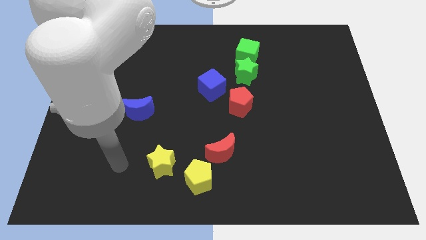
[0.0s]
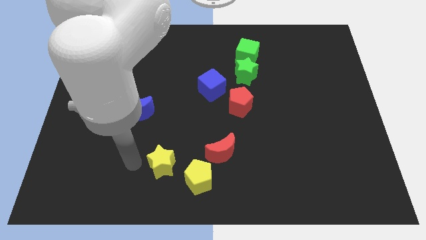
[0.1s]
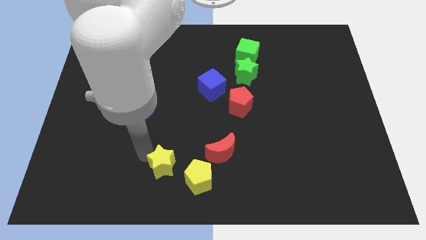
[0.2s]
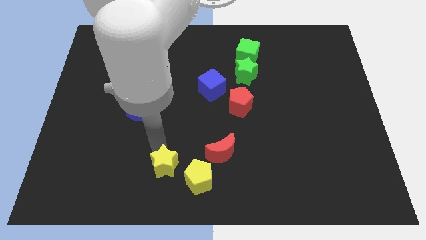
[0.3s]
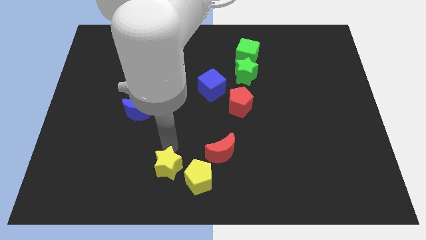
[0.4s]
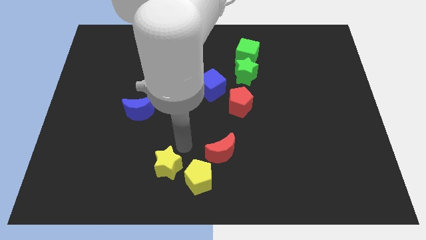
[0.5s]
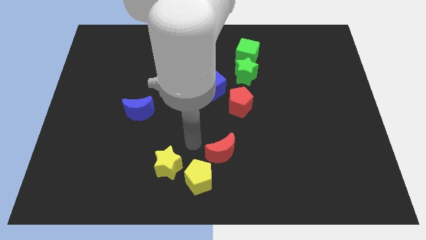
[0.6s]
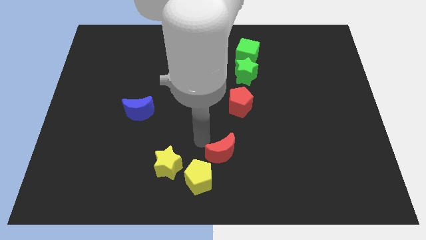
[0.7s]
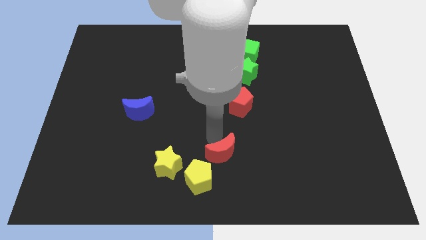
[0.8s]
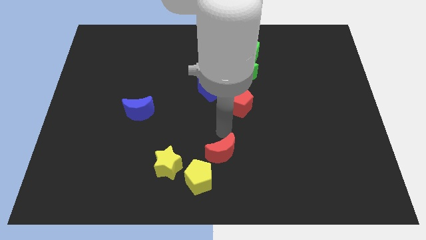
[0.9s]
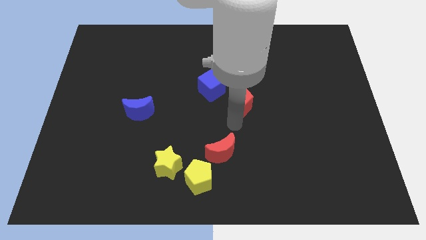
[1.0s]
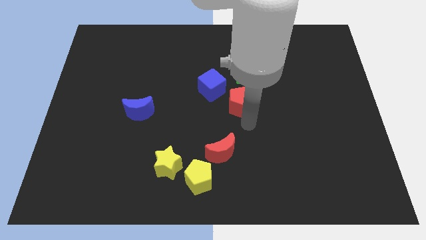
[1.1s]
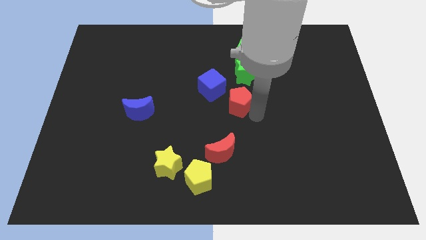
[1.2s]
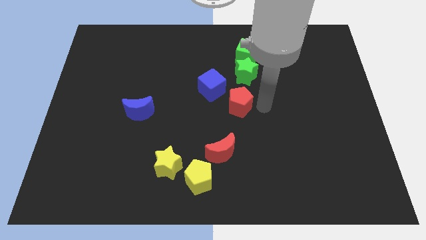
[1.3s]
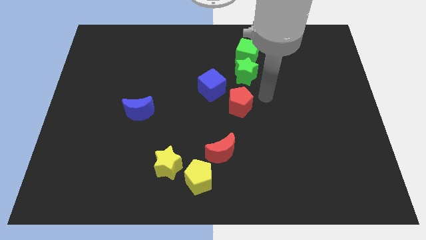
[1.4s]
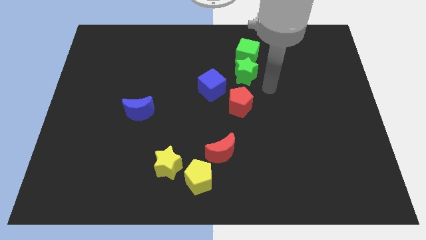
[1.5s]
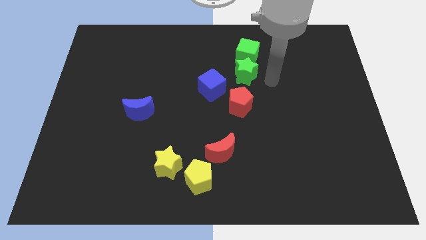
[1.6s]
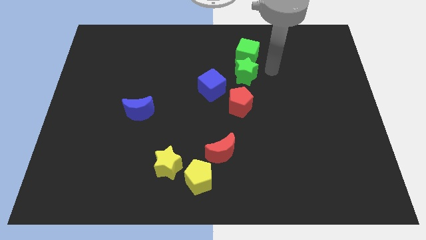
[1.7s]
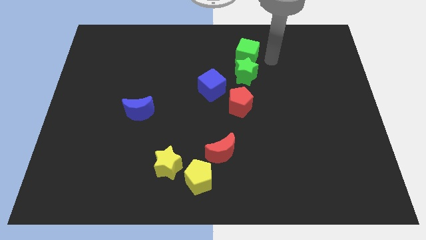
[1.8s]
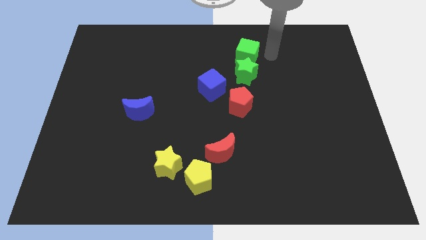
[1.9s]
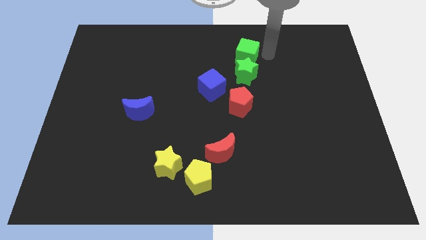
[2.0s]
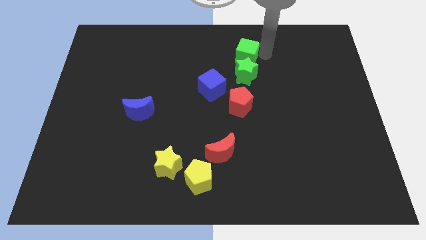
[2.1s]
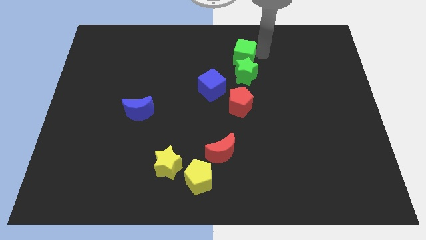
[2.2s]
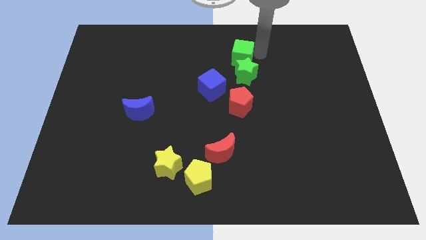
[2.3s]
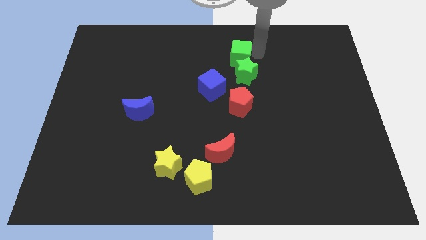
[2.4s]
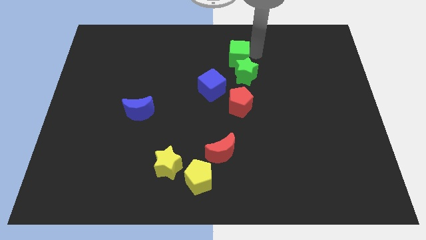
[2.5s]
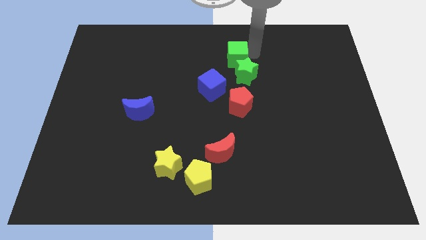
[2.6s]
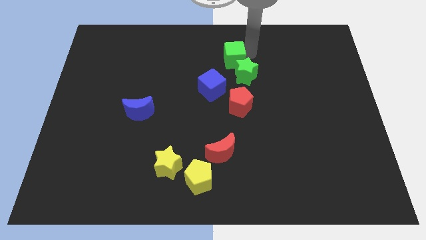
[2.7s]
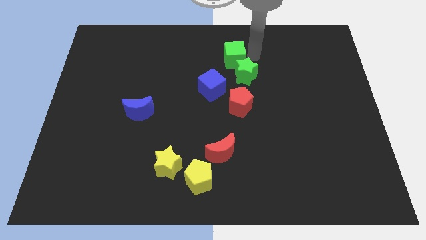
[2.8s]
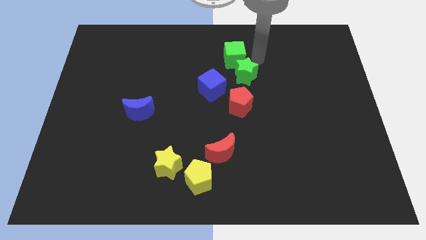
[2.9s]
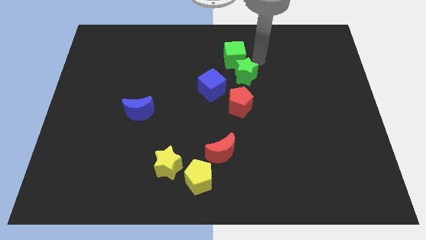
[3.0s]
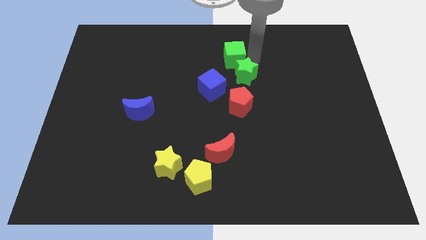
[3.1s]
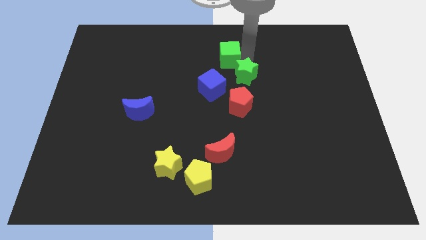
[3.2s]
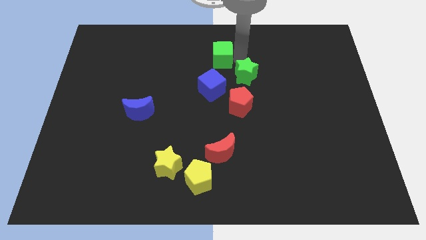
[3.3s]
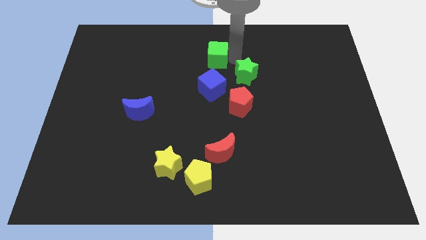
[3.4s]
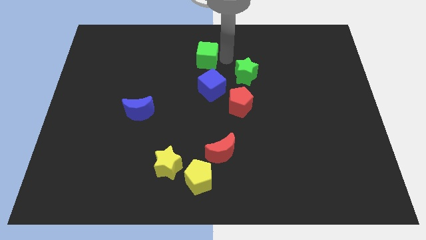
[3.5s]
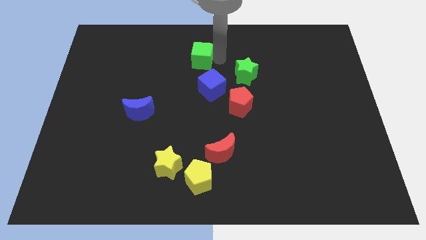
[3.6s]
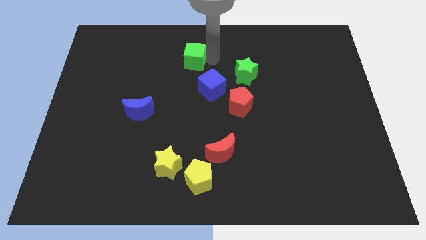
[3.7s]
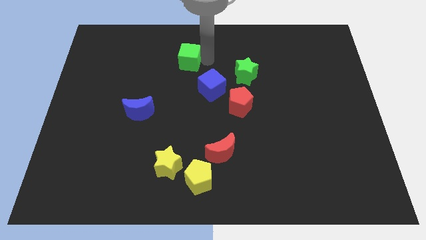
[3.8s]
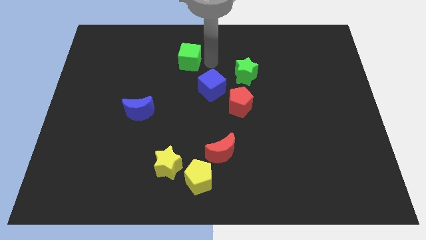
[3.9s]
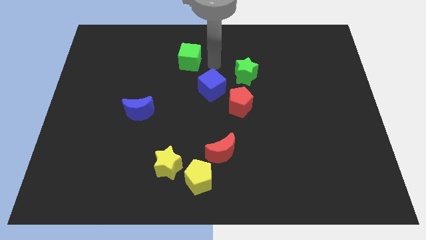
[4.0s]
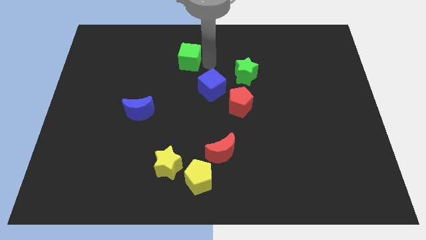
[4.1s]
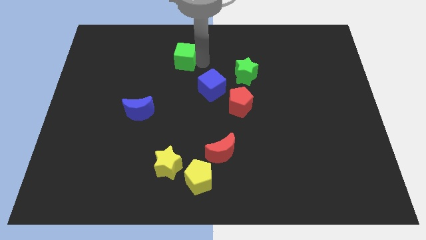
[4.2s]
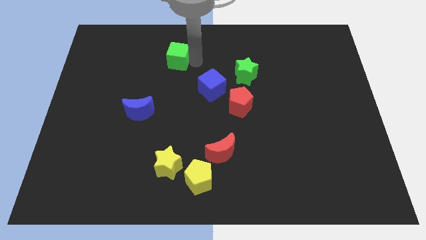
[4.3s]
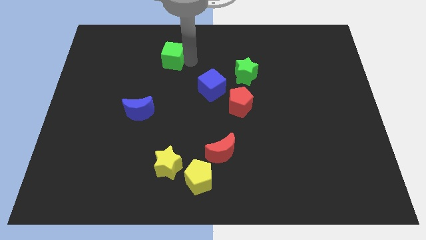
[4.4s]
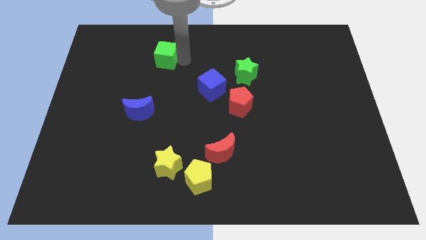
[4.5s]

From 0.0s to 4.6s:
push the green cube to the left

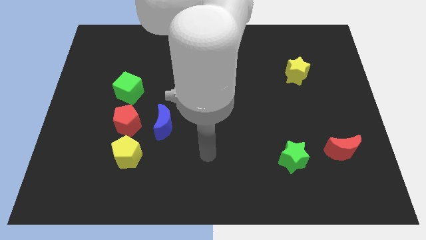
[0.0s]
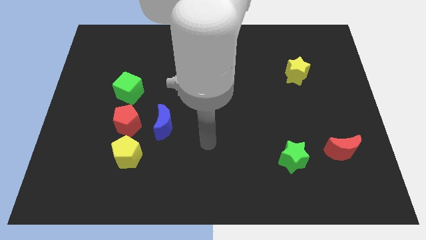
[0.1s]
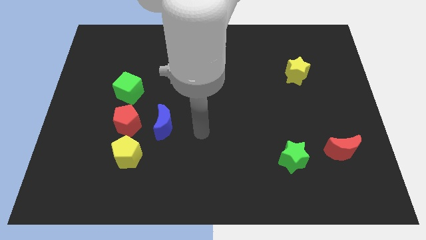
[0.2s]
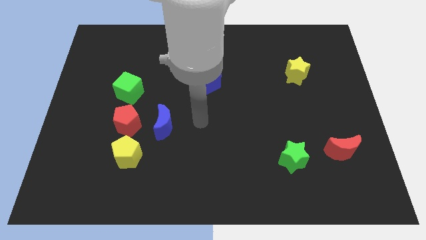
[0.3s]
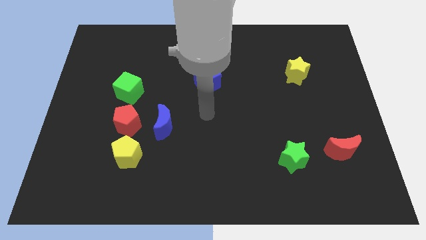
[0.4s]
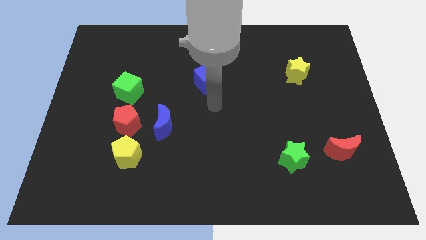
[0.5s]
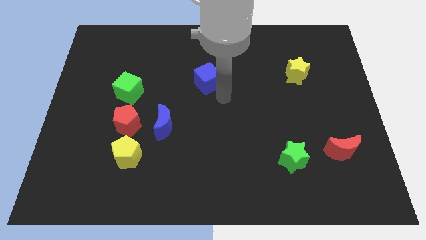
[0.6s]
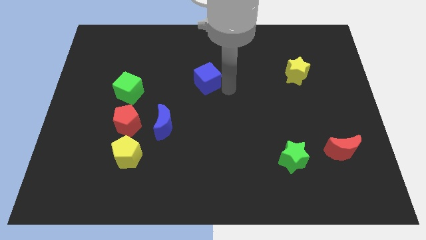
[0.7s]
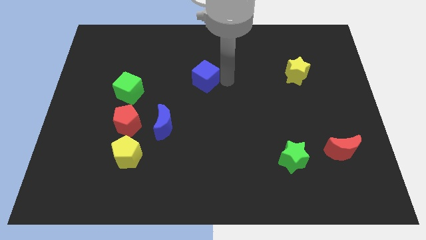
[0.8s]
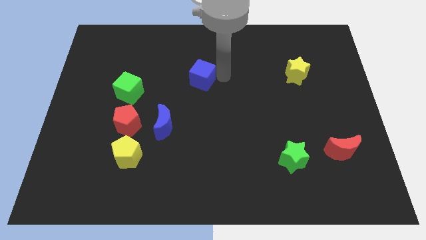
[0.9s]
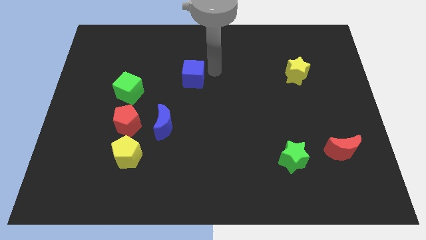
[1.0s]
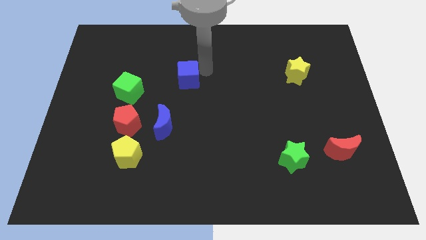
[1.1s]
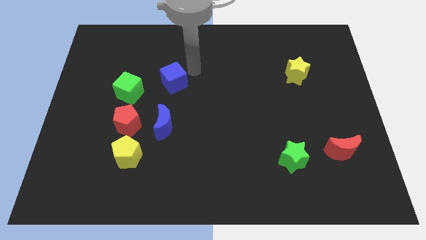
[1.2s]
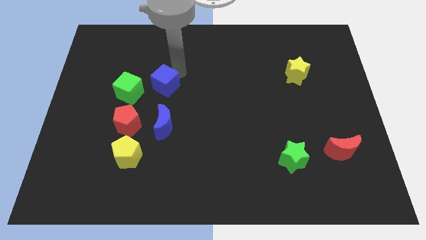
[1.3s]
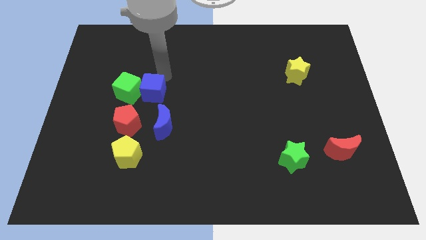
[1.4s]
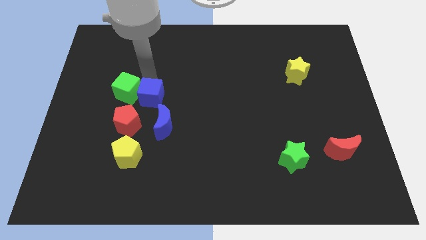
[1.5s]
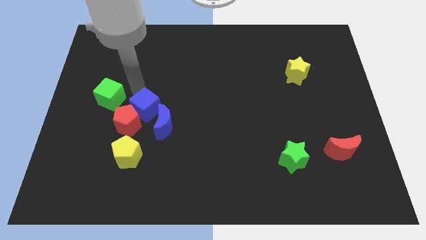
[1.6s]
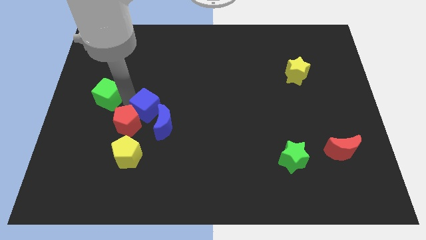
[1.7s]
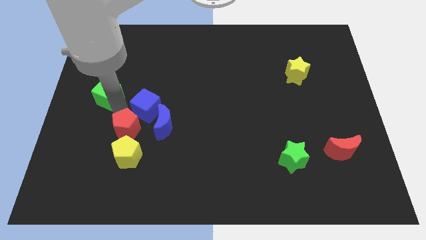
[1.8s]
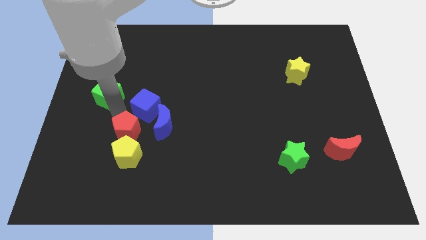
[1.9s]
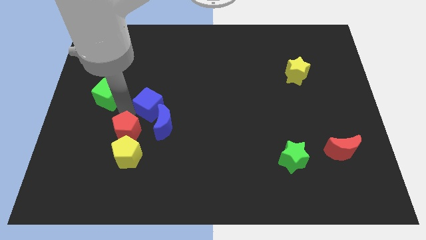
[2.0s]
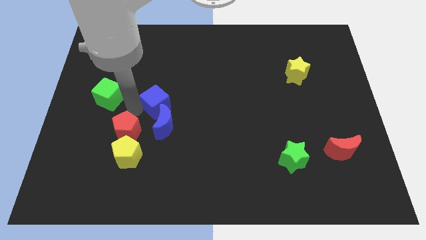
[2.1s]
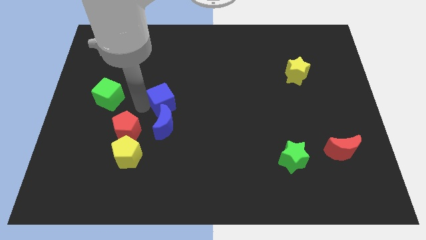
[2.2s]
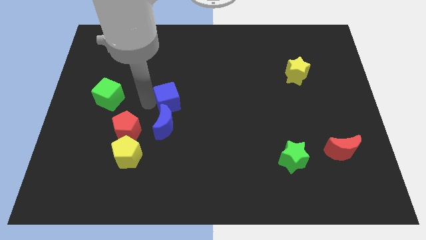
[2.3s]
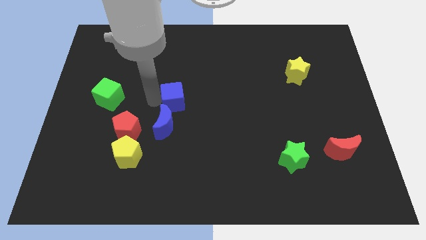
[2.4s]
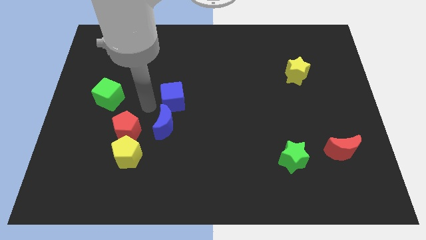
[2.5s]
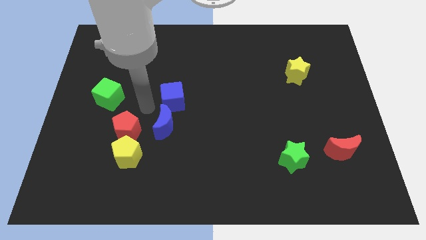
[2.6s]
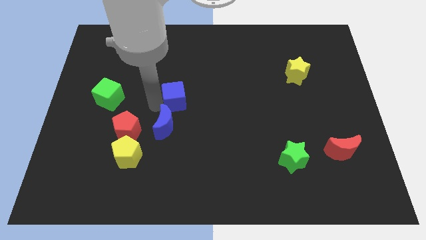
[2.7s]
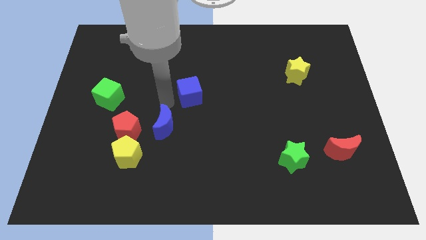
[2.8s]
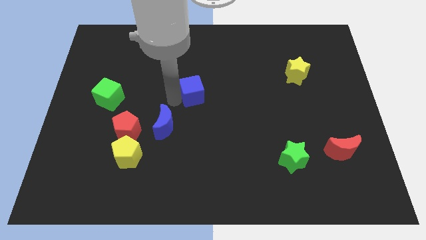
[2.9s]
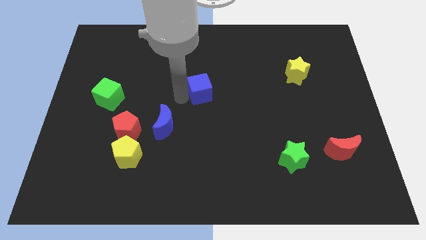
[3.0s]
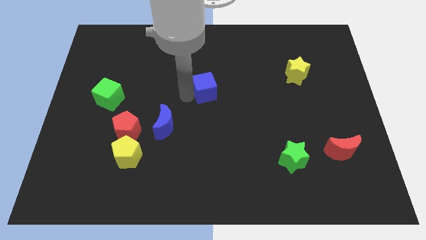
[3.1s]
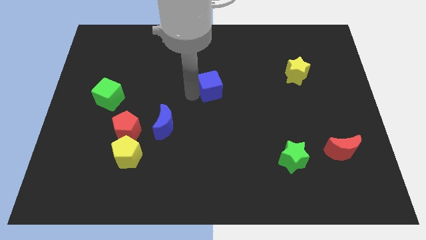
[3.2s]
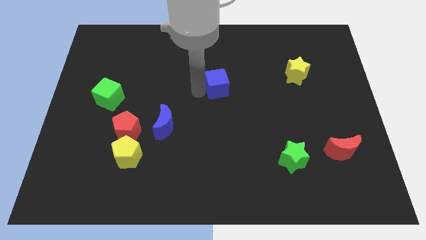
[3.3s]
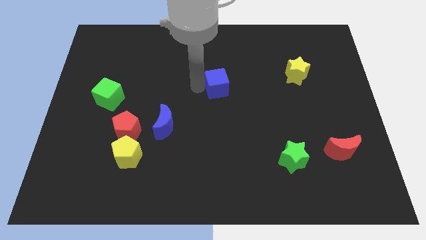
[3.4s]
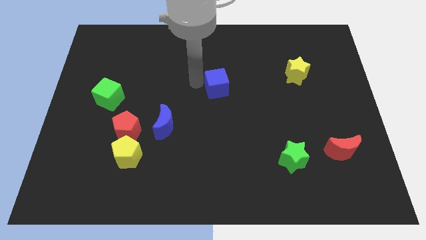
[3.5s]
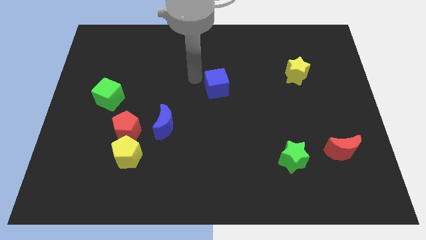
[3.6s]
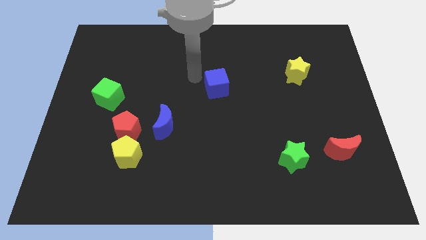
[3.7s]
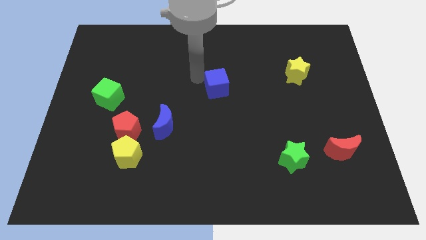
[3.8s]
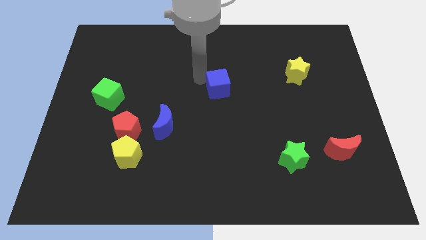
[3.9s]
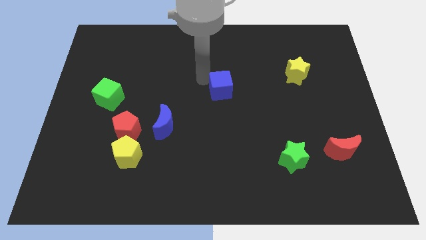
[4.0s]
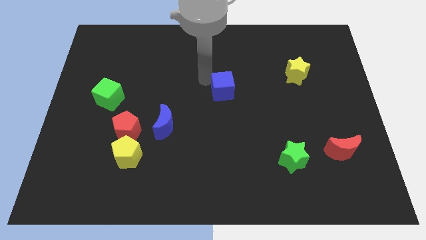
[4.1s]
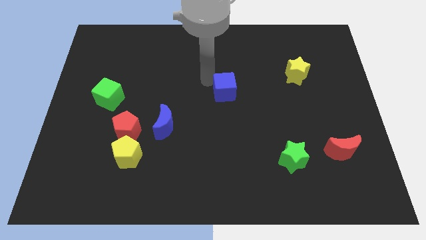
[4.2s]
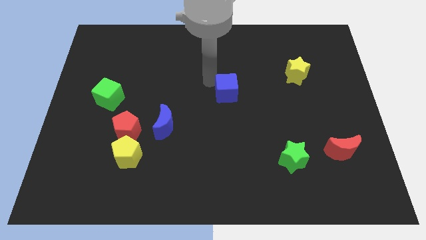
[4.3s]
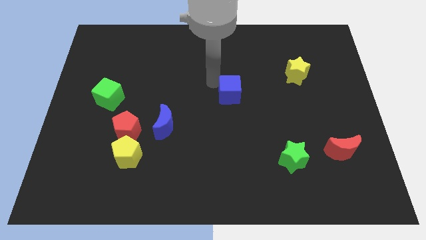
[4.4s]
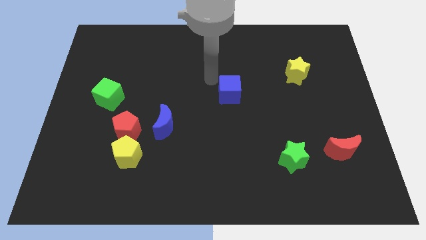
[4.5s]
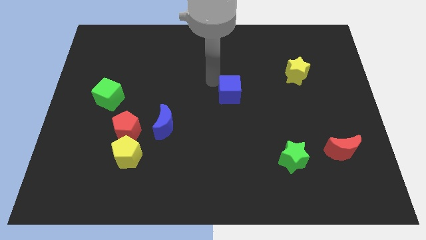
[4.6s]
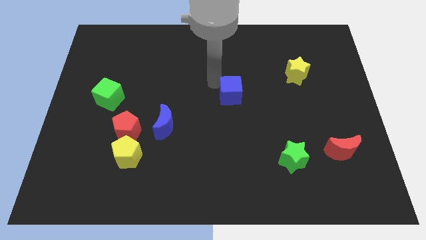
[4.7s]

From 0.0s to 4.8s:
slightly move the blue cube diagonally down and right
